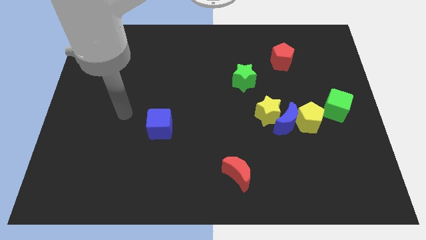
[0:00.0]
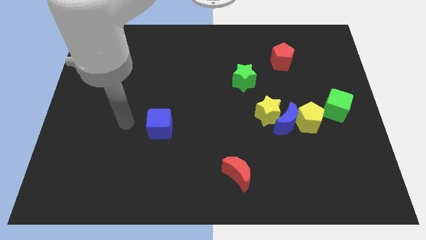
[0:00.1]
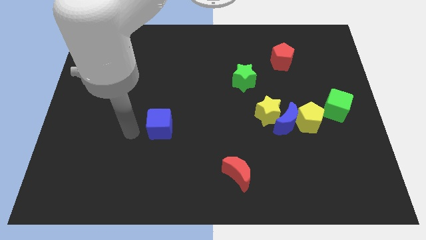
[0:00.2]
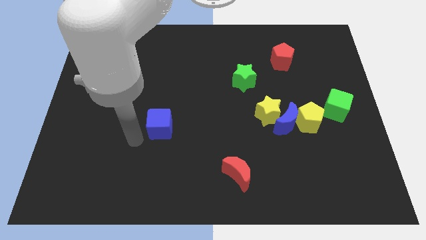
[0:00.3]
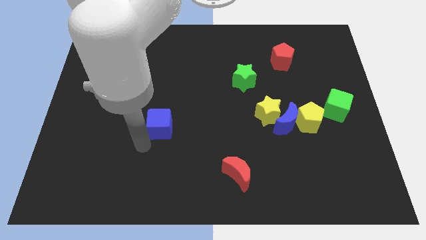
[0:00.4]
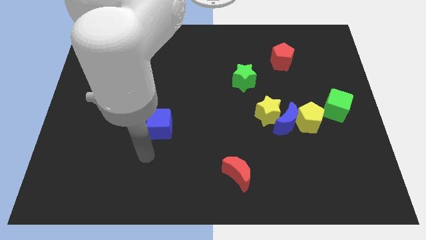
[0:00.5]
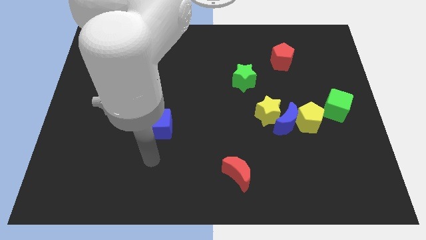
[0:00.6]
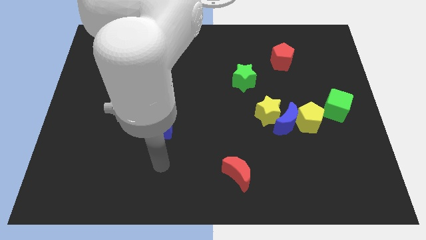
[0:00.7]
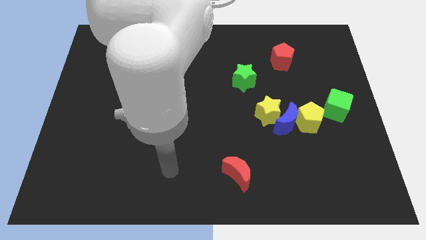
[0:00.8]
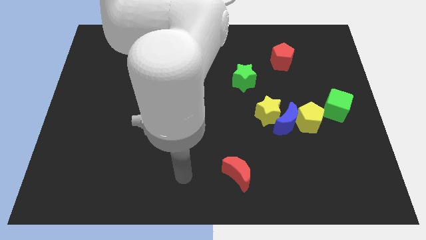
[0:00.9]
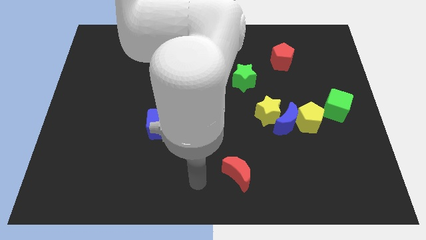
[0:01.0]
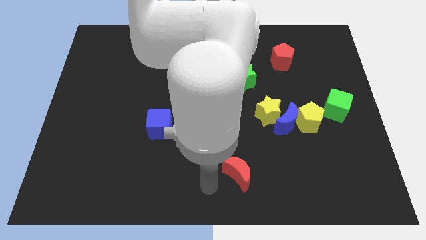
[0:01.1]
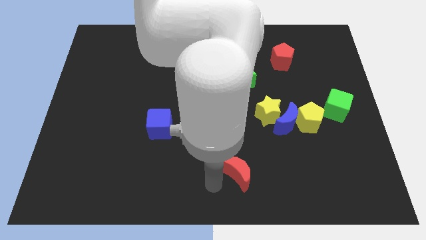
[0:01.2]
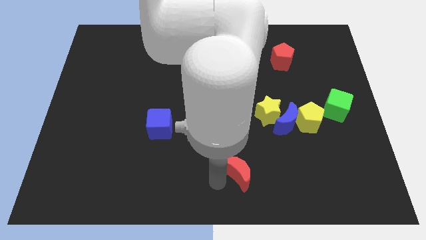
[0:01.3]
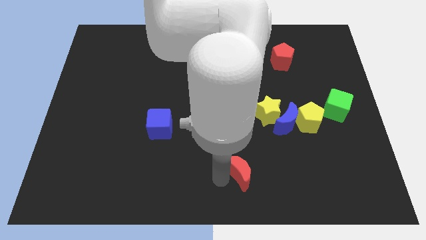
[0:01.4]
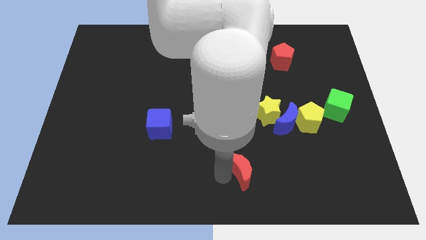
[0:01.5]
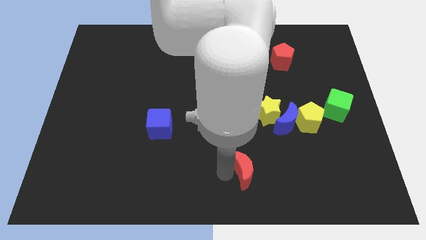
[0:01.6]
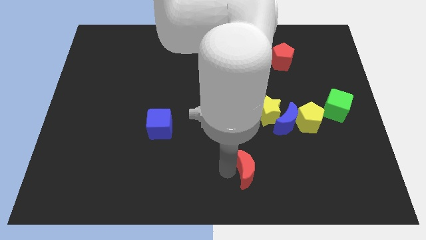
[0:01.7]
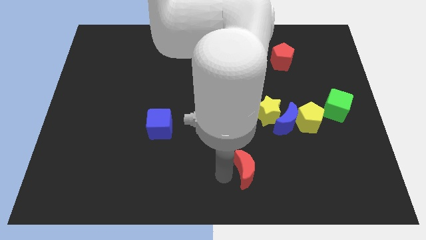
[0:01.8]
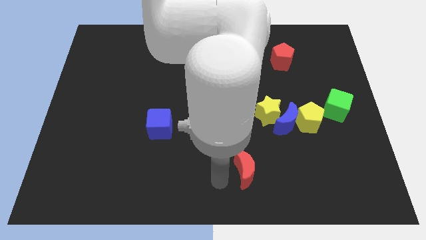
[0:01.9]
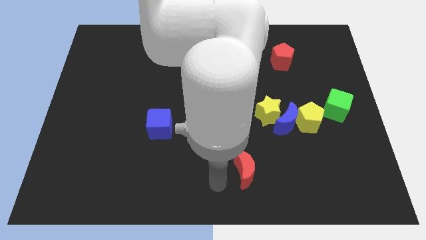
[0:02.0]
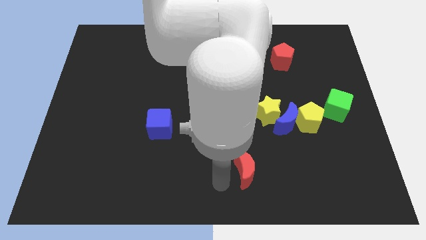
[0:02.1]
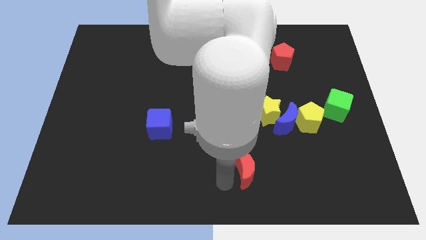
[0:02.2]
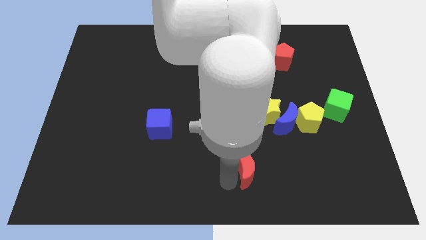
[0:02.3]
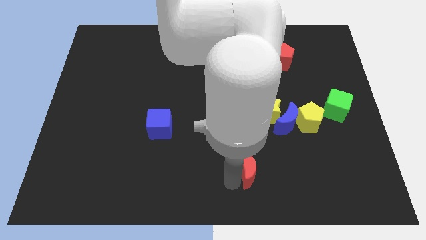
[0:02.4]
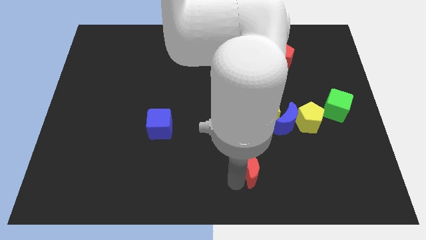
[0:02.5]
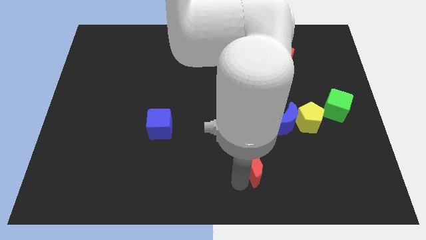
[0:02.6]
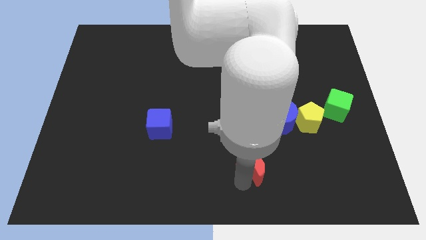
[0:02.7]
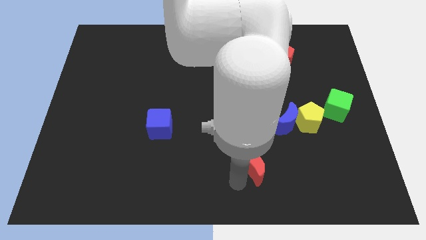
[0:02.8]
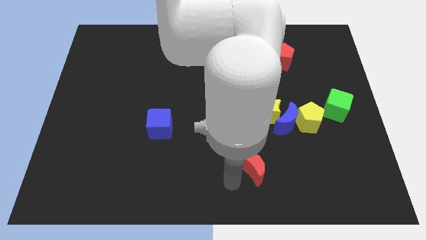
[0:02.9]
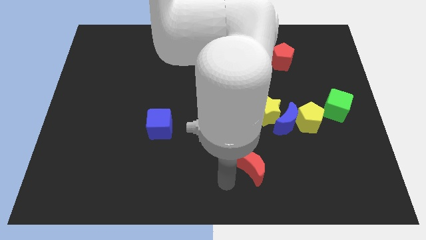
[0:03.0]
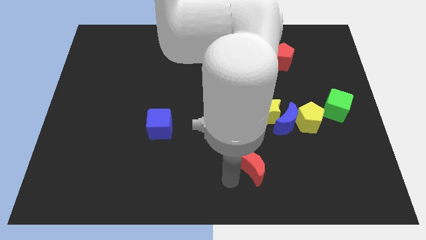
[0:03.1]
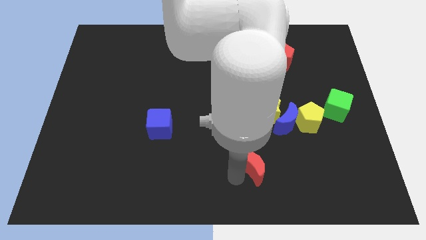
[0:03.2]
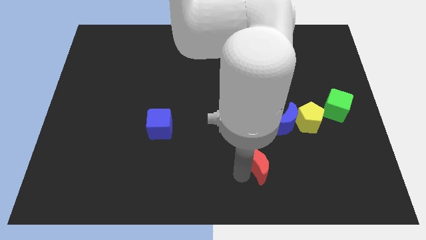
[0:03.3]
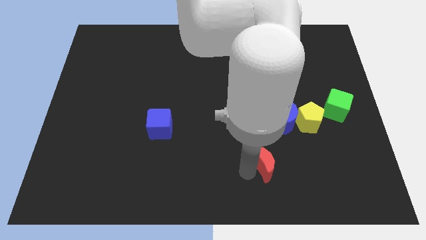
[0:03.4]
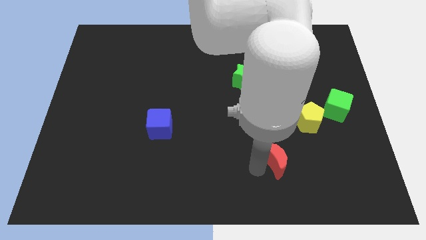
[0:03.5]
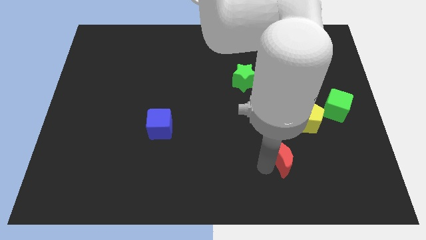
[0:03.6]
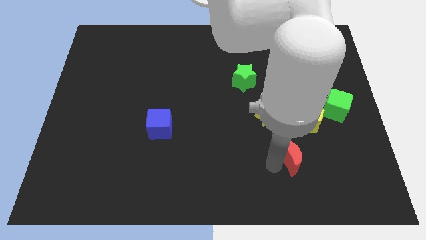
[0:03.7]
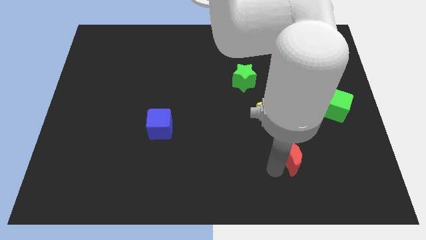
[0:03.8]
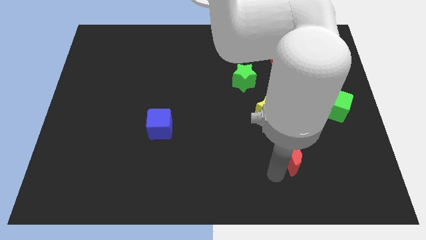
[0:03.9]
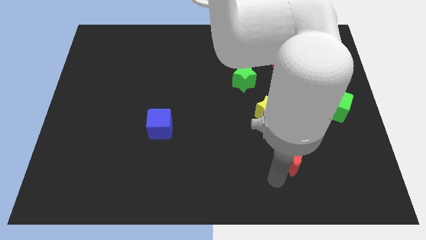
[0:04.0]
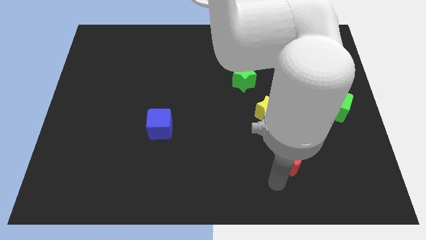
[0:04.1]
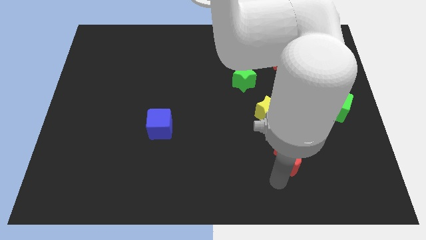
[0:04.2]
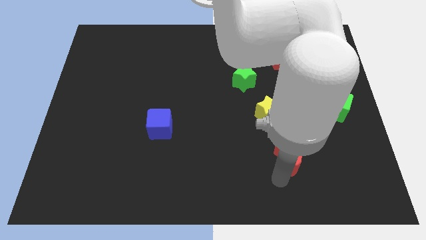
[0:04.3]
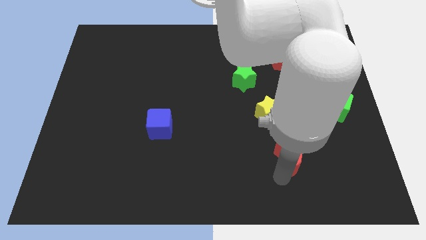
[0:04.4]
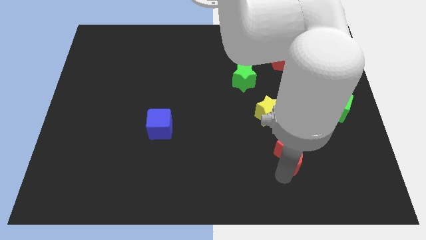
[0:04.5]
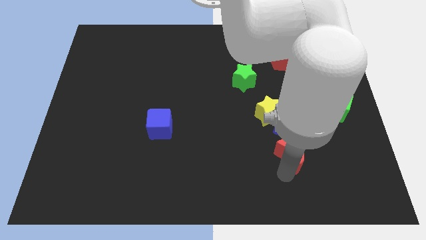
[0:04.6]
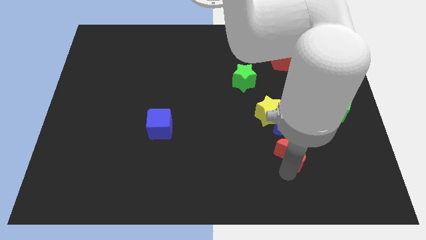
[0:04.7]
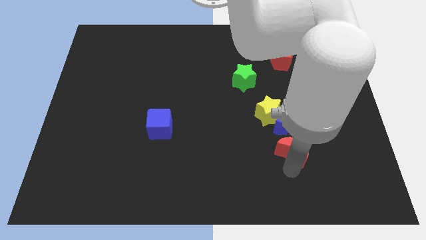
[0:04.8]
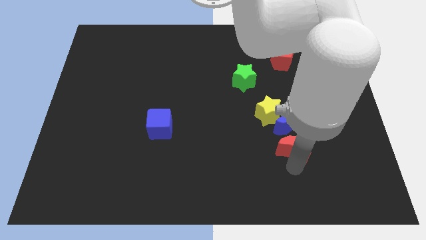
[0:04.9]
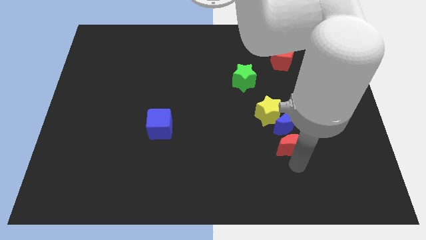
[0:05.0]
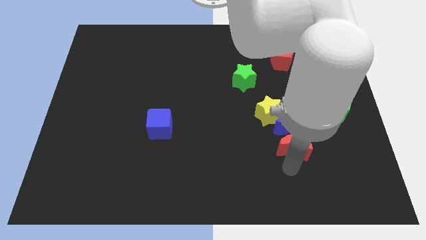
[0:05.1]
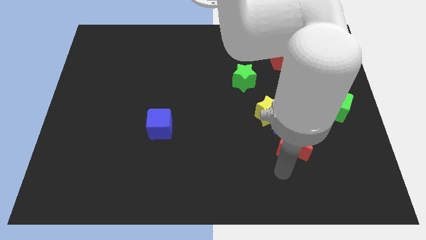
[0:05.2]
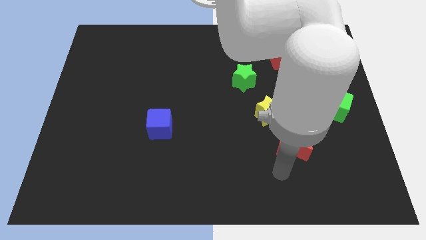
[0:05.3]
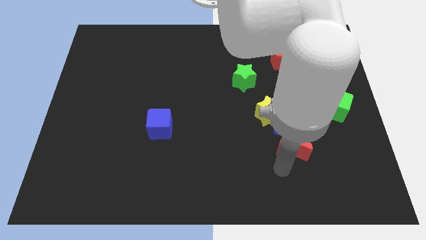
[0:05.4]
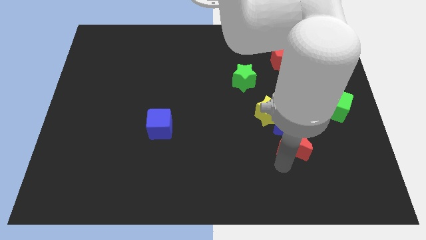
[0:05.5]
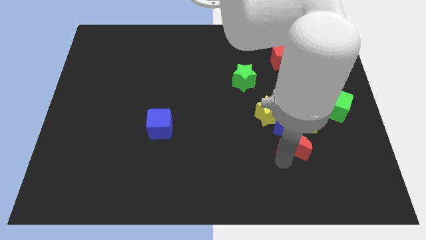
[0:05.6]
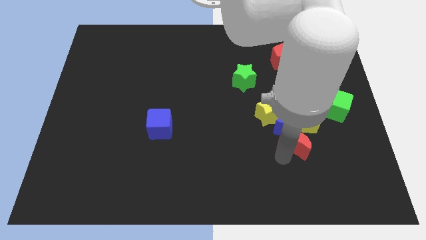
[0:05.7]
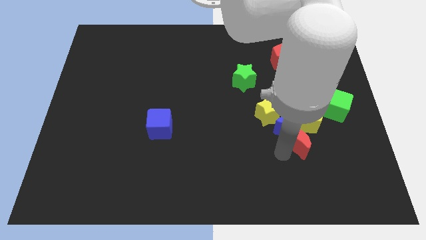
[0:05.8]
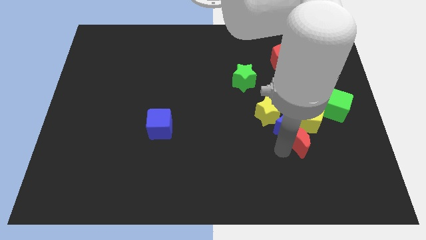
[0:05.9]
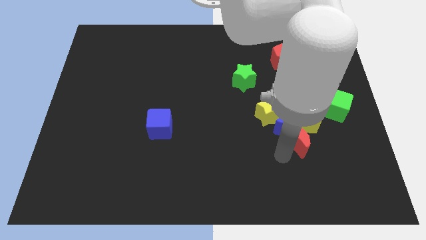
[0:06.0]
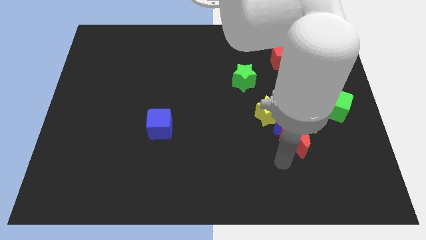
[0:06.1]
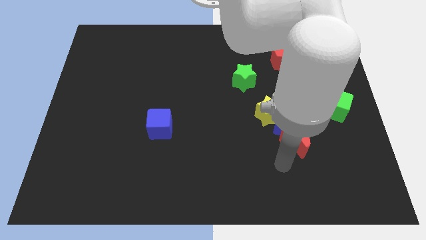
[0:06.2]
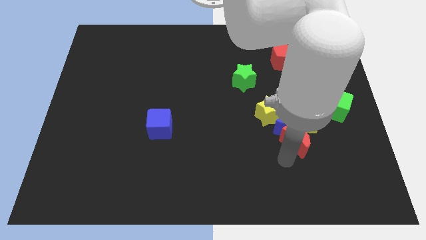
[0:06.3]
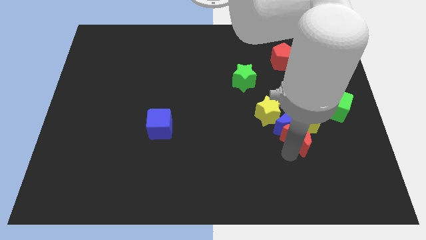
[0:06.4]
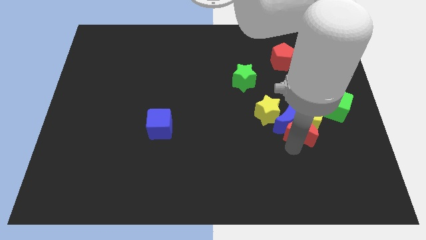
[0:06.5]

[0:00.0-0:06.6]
push the red moon next to the yellow pentagon
